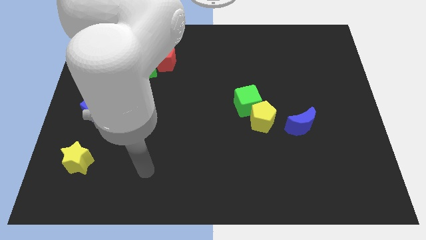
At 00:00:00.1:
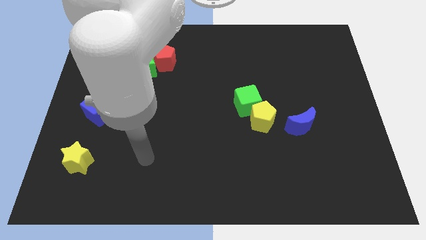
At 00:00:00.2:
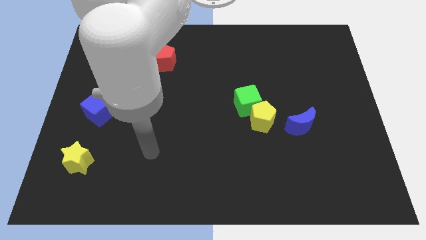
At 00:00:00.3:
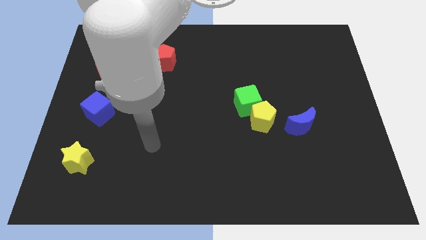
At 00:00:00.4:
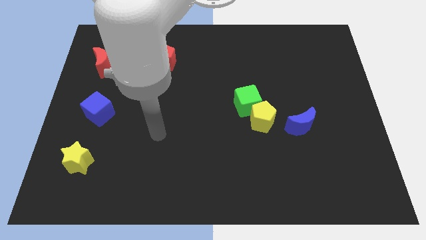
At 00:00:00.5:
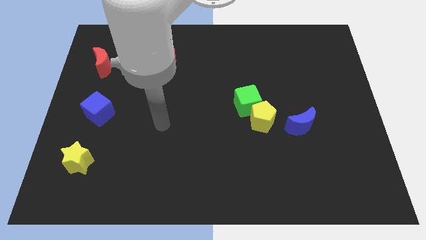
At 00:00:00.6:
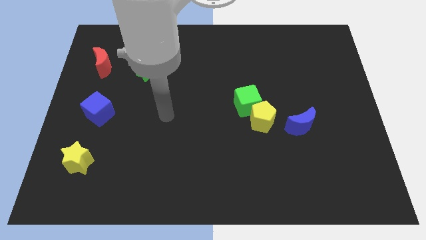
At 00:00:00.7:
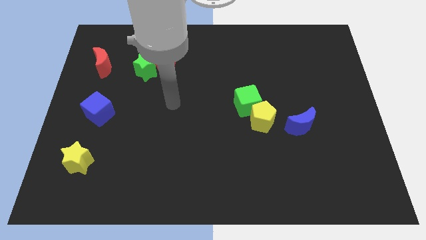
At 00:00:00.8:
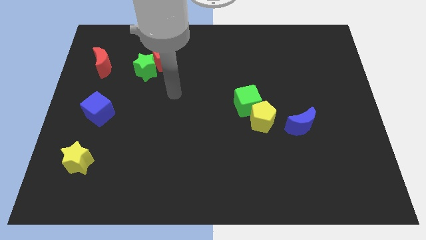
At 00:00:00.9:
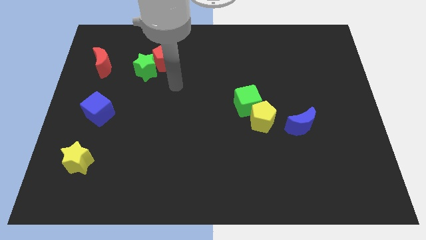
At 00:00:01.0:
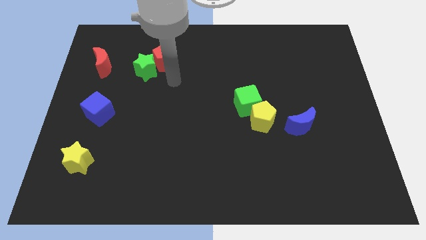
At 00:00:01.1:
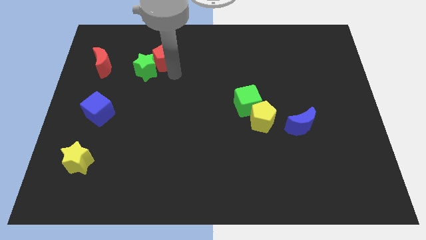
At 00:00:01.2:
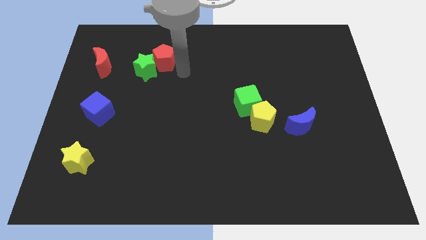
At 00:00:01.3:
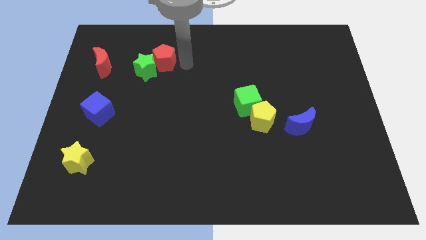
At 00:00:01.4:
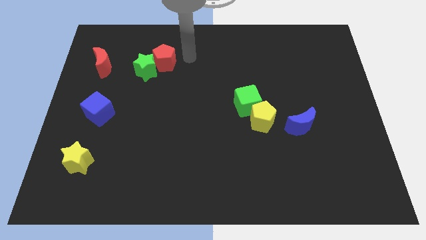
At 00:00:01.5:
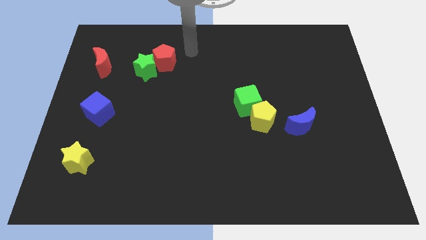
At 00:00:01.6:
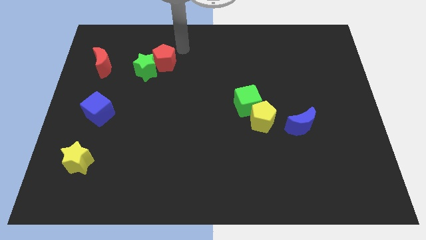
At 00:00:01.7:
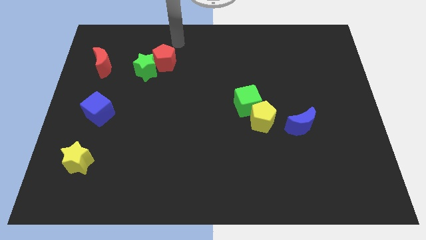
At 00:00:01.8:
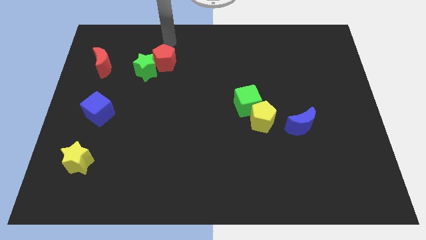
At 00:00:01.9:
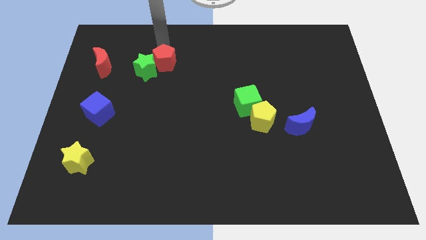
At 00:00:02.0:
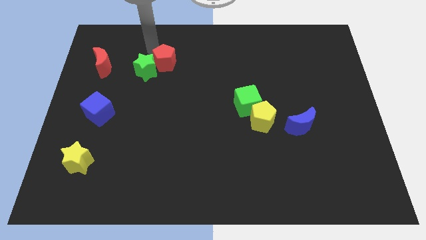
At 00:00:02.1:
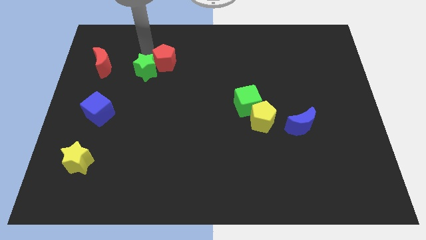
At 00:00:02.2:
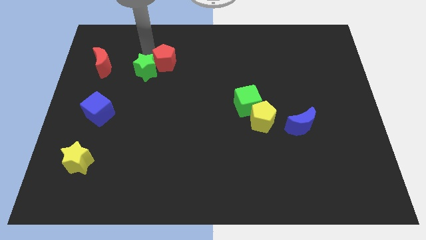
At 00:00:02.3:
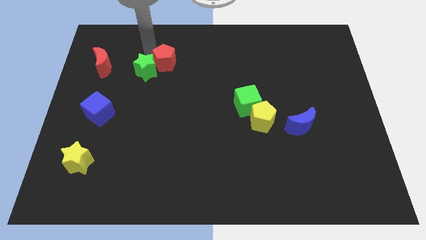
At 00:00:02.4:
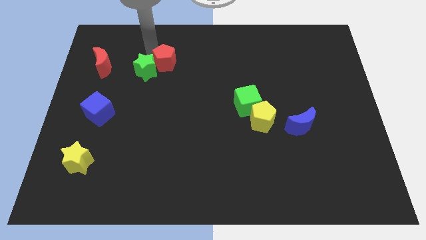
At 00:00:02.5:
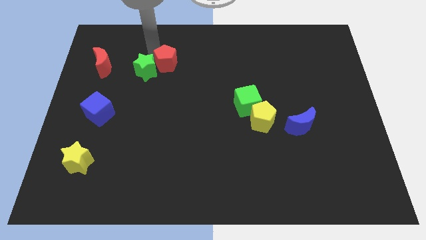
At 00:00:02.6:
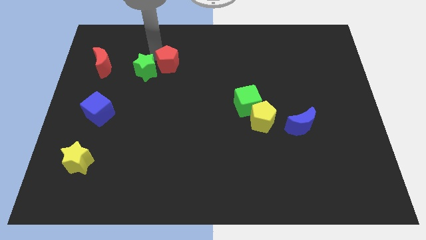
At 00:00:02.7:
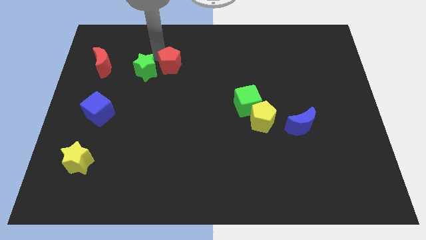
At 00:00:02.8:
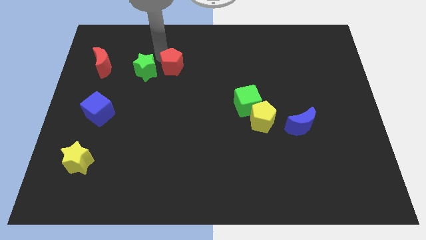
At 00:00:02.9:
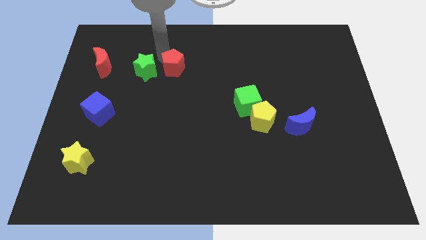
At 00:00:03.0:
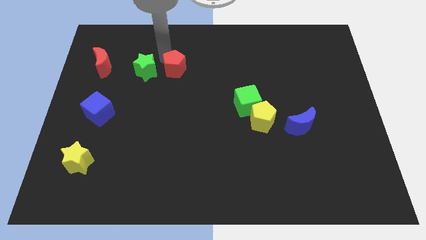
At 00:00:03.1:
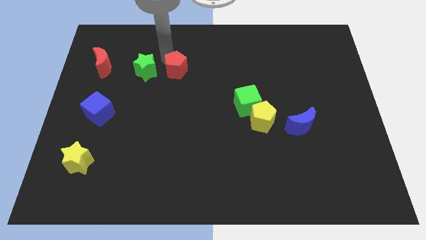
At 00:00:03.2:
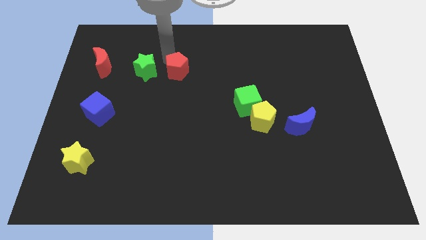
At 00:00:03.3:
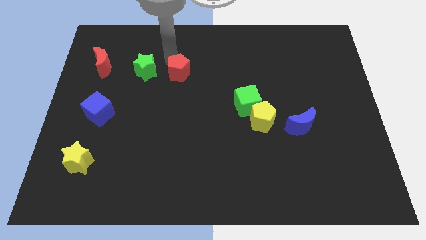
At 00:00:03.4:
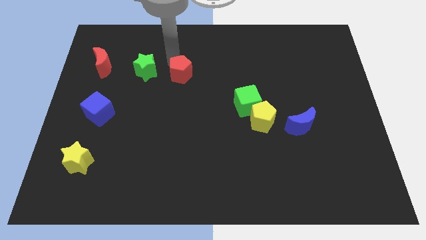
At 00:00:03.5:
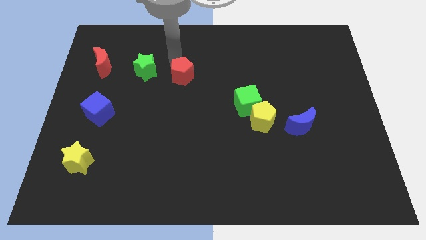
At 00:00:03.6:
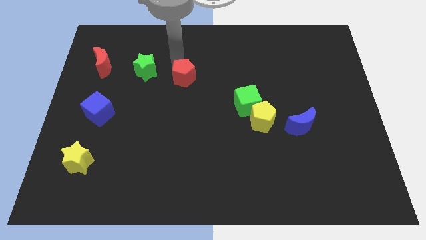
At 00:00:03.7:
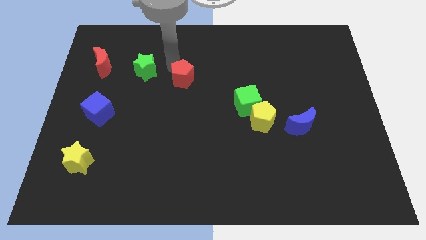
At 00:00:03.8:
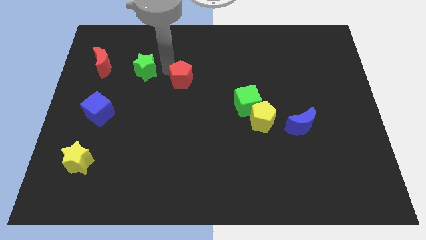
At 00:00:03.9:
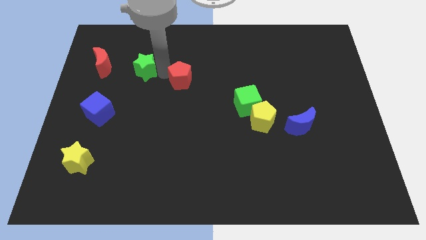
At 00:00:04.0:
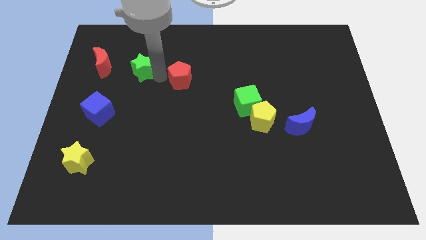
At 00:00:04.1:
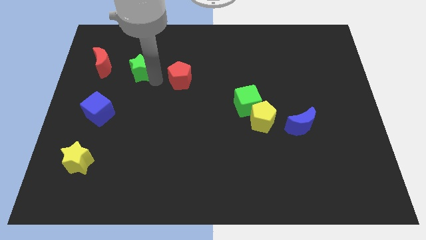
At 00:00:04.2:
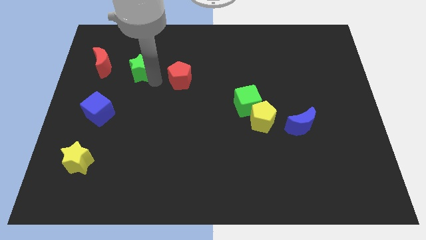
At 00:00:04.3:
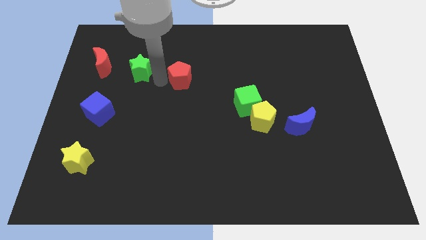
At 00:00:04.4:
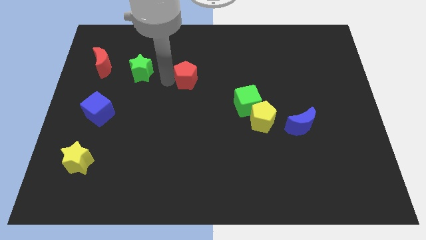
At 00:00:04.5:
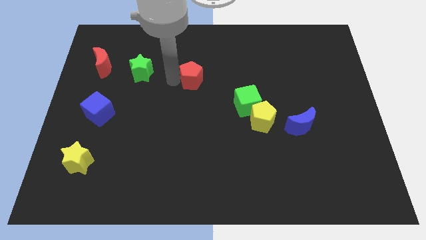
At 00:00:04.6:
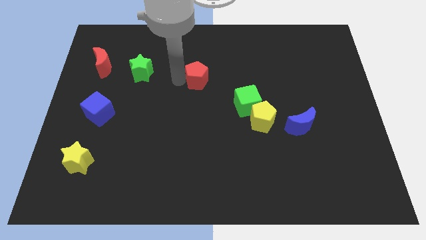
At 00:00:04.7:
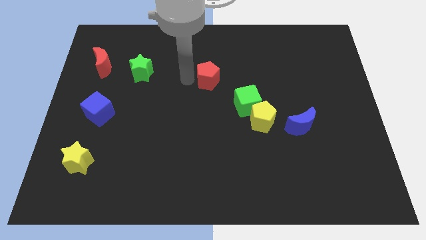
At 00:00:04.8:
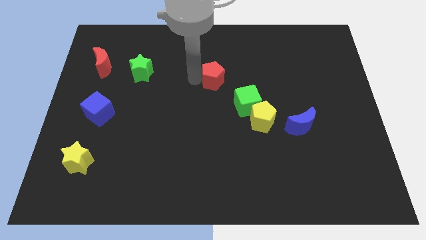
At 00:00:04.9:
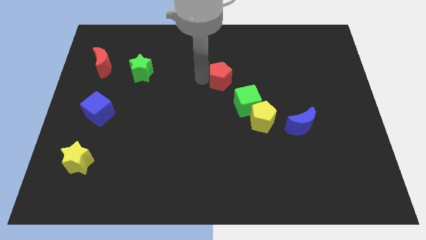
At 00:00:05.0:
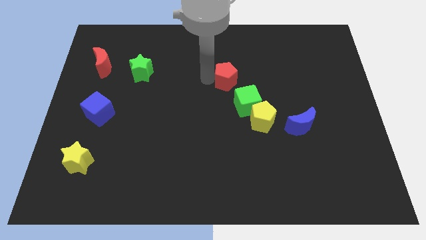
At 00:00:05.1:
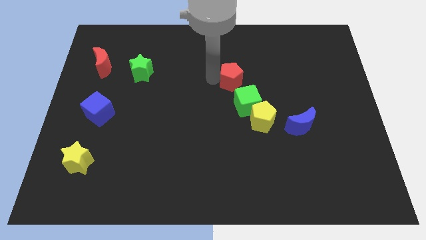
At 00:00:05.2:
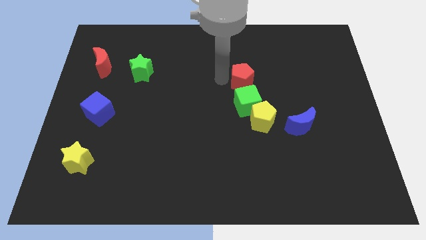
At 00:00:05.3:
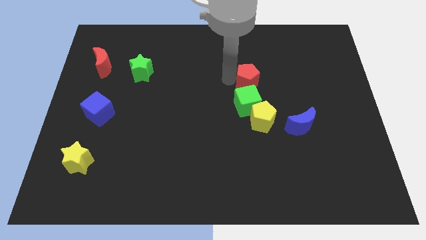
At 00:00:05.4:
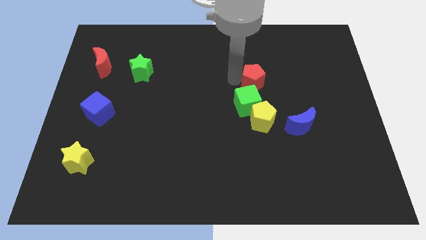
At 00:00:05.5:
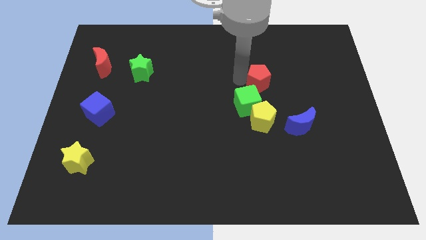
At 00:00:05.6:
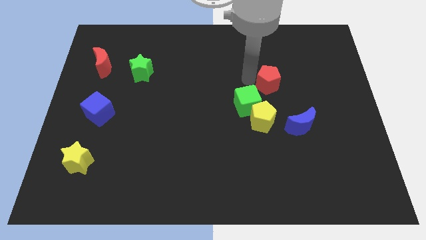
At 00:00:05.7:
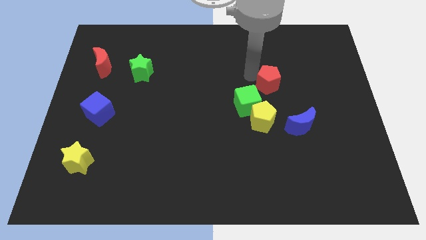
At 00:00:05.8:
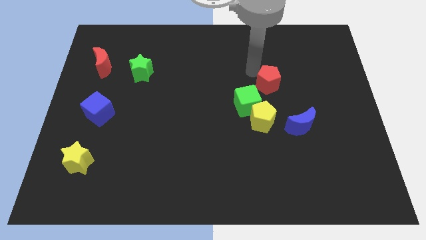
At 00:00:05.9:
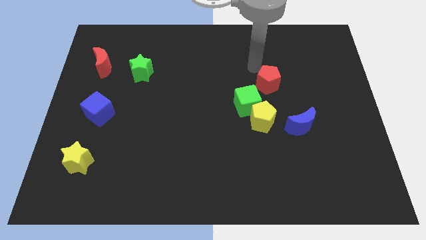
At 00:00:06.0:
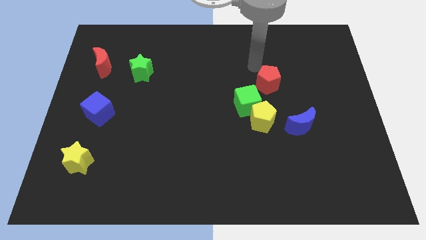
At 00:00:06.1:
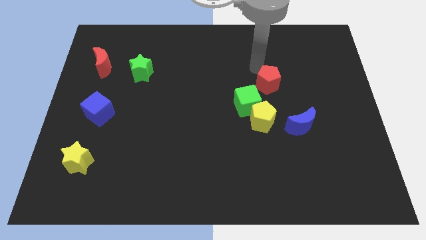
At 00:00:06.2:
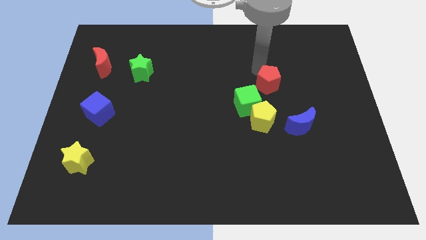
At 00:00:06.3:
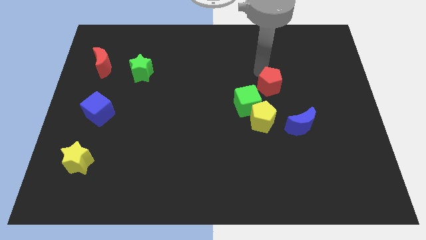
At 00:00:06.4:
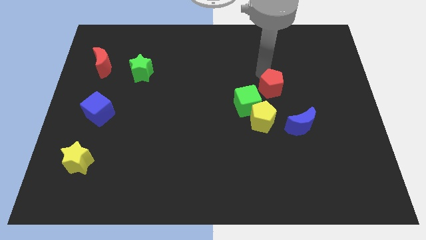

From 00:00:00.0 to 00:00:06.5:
slide the red pentagon diagonally up and to the right of the yellow pentagon

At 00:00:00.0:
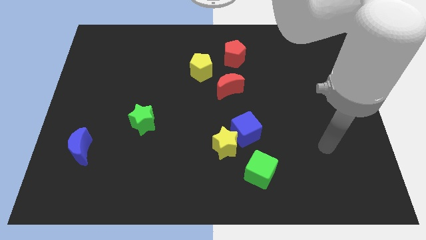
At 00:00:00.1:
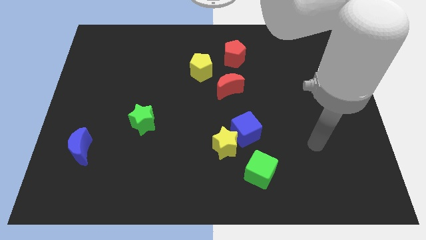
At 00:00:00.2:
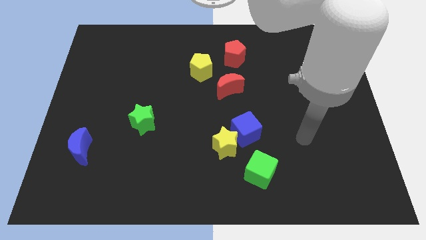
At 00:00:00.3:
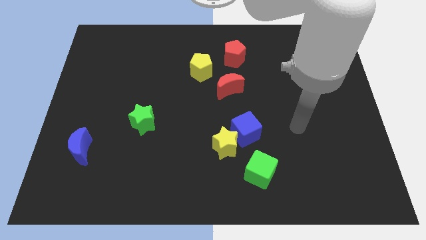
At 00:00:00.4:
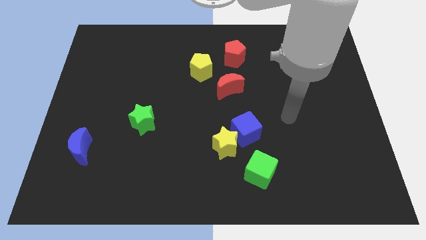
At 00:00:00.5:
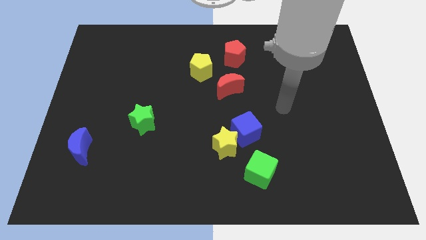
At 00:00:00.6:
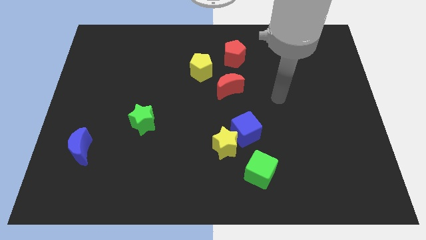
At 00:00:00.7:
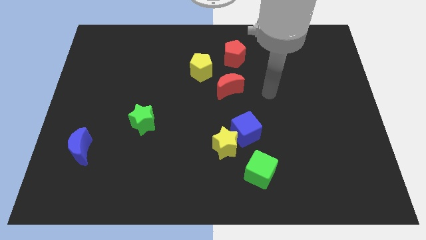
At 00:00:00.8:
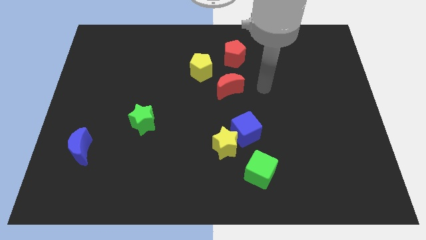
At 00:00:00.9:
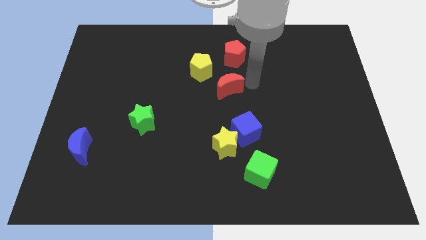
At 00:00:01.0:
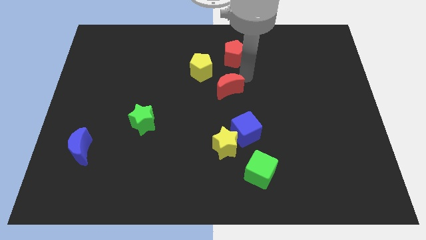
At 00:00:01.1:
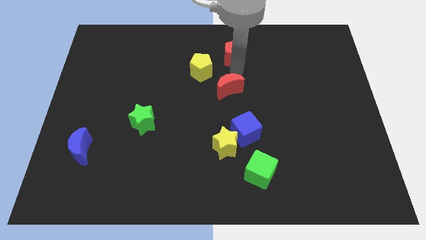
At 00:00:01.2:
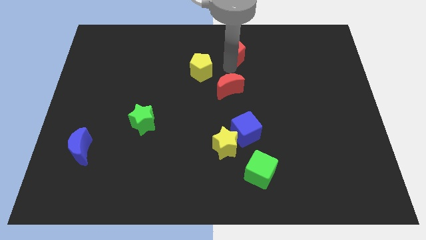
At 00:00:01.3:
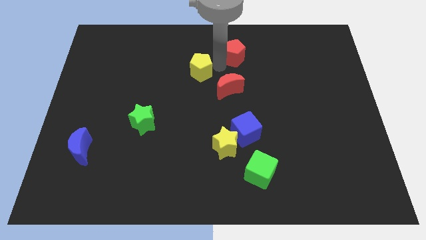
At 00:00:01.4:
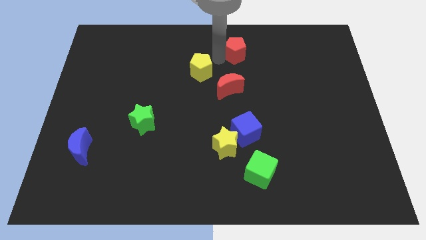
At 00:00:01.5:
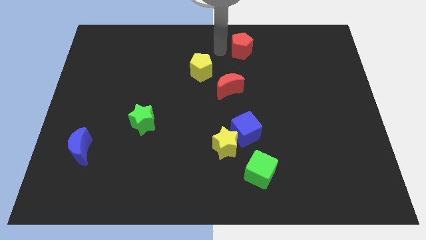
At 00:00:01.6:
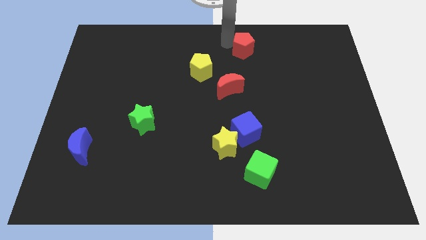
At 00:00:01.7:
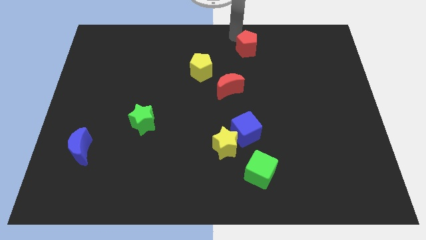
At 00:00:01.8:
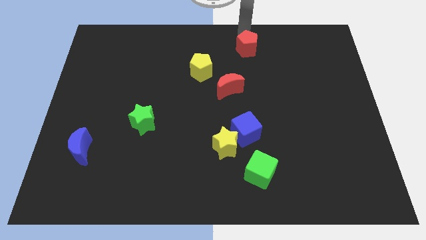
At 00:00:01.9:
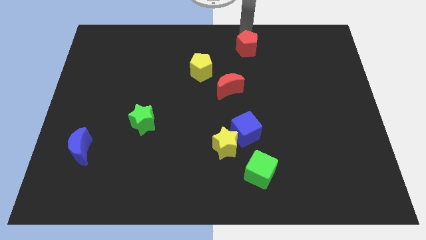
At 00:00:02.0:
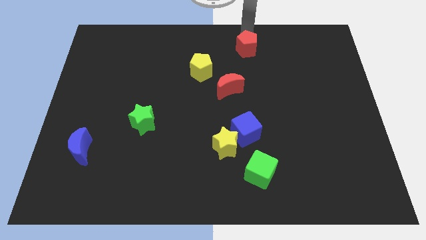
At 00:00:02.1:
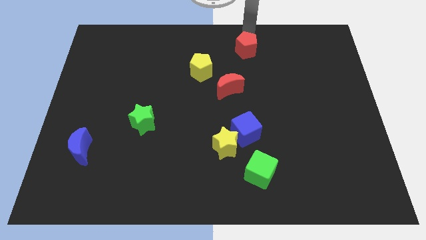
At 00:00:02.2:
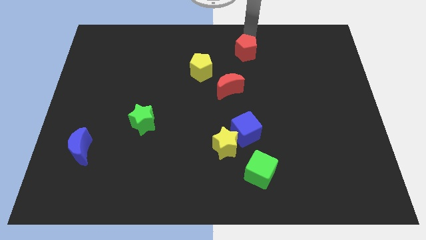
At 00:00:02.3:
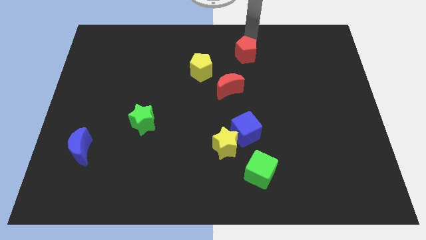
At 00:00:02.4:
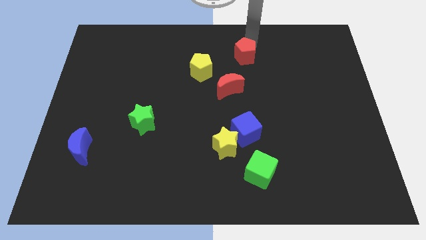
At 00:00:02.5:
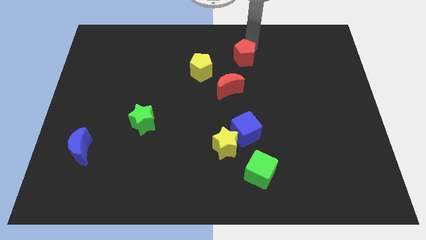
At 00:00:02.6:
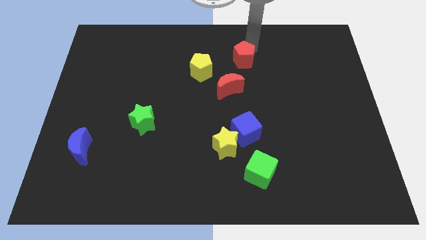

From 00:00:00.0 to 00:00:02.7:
push the red pentagon diagonally up and to the right of the red moon
